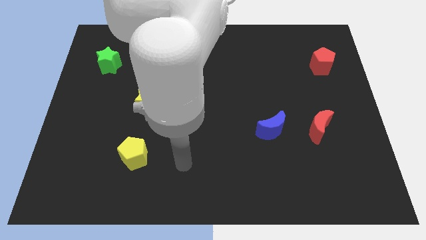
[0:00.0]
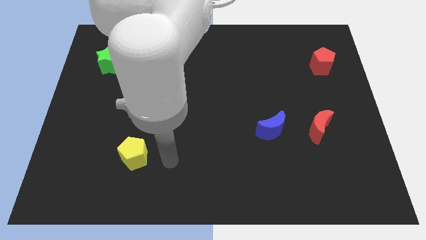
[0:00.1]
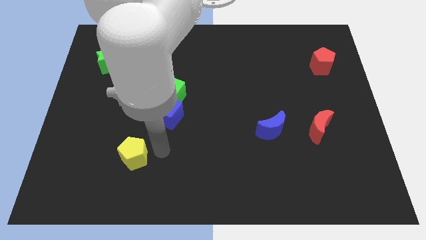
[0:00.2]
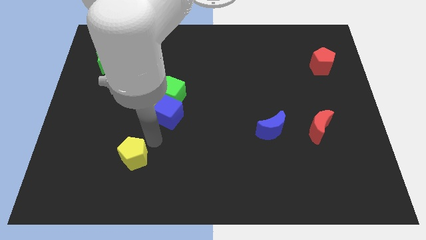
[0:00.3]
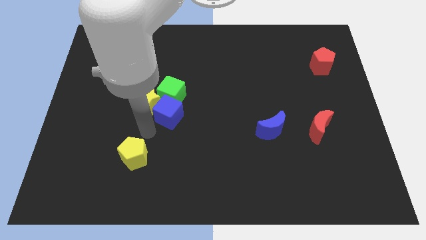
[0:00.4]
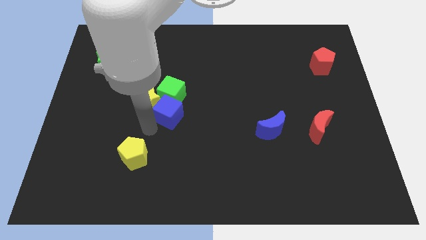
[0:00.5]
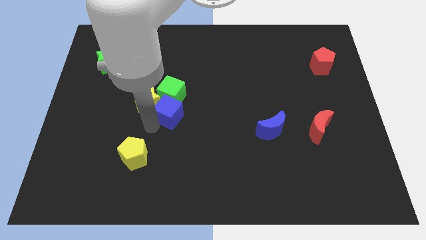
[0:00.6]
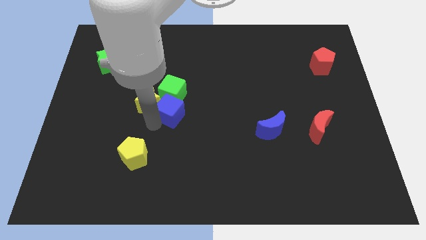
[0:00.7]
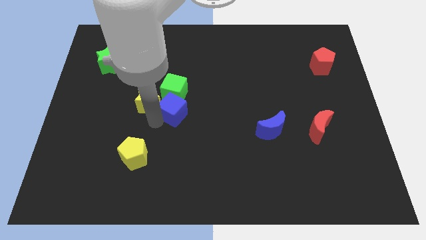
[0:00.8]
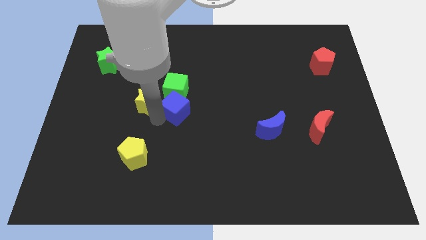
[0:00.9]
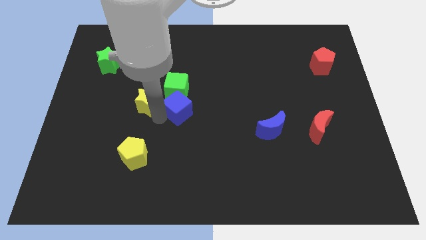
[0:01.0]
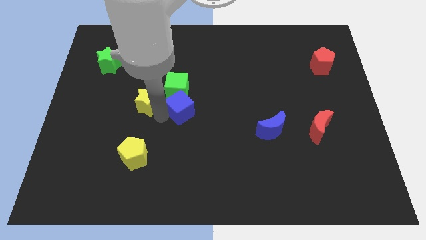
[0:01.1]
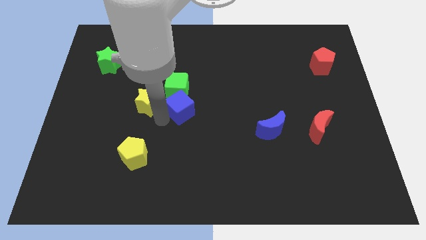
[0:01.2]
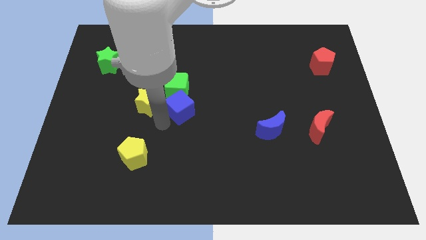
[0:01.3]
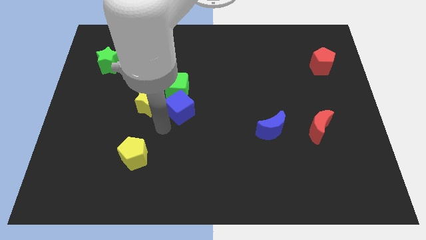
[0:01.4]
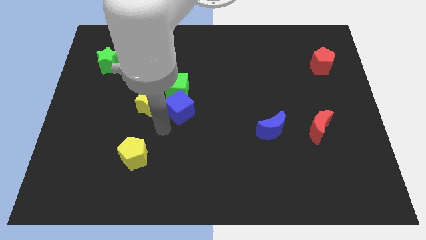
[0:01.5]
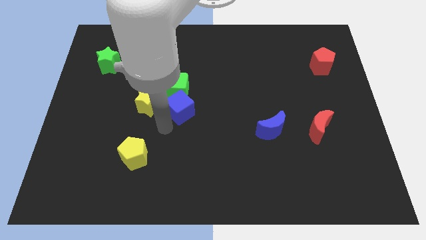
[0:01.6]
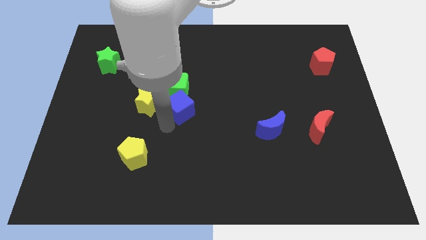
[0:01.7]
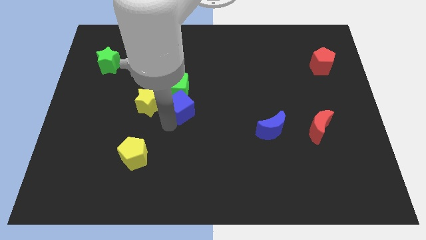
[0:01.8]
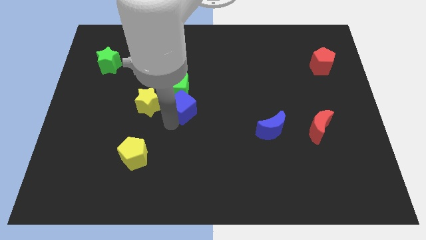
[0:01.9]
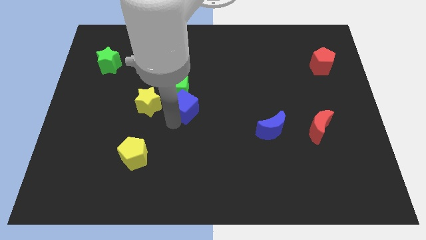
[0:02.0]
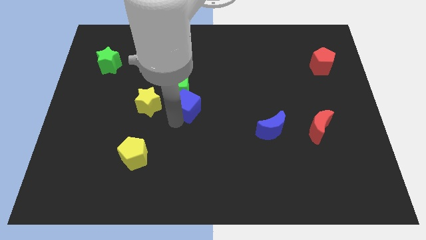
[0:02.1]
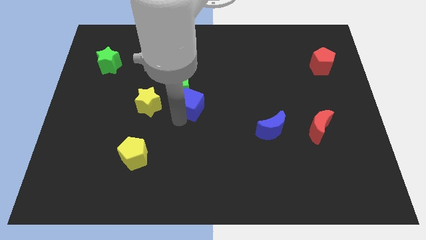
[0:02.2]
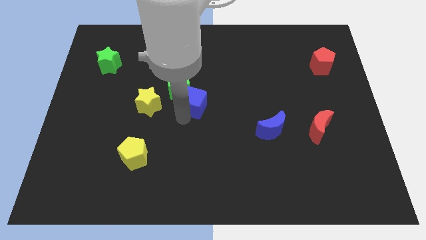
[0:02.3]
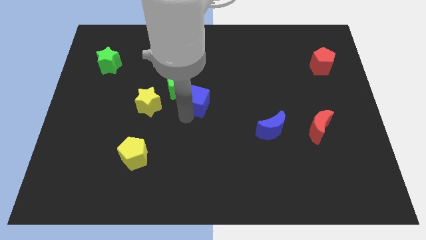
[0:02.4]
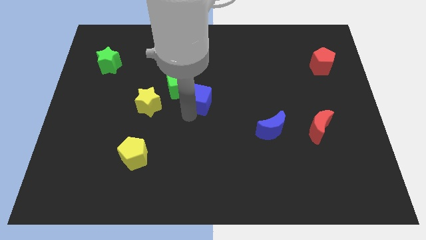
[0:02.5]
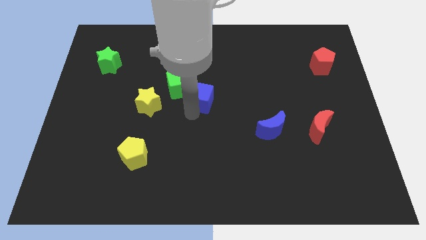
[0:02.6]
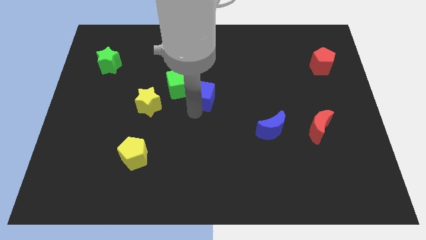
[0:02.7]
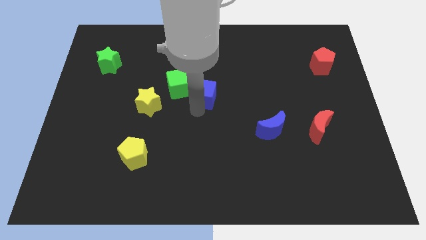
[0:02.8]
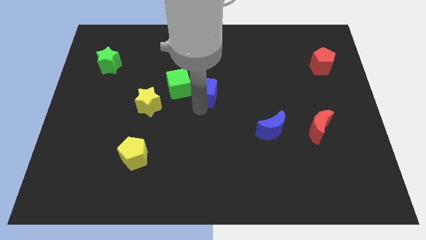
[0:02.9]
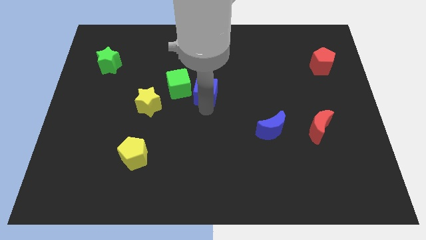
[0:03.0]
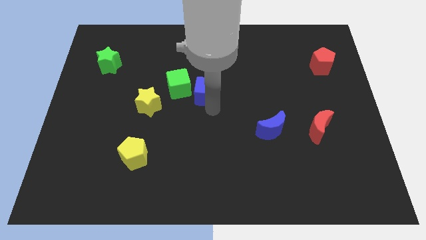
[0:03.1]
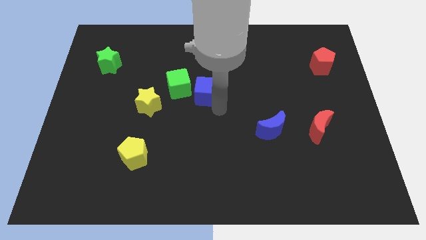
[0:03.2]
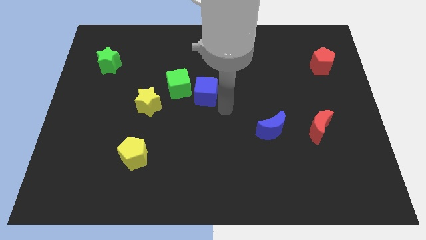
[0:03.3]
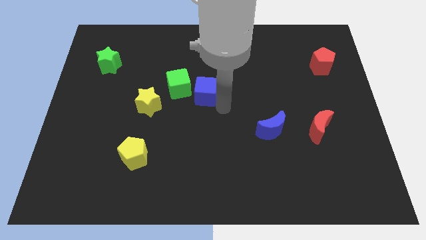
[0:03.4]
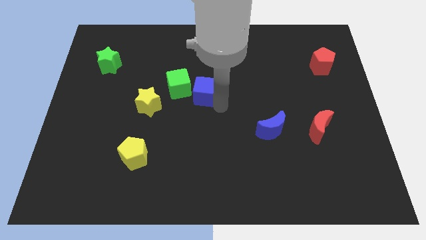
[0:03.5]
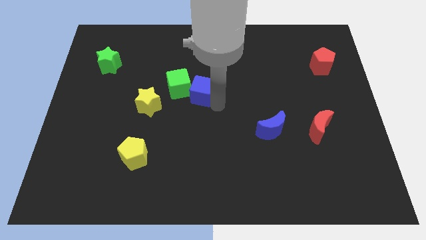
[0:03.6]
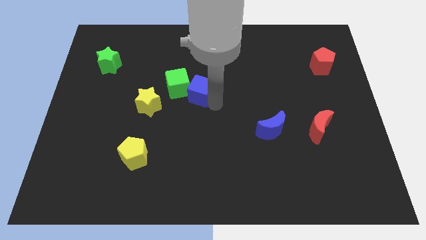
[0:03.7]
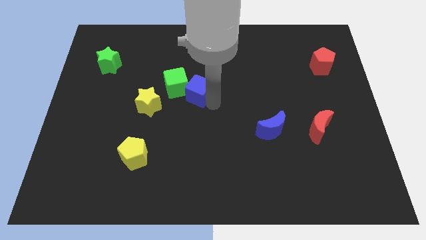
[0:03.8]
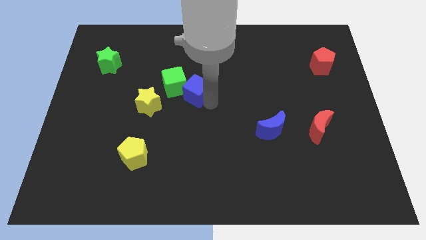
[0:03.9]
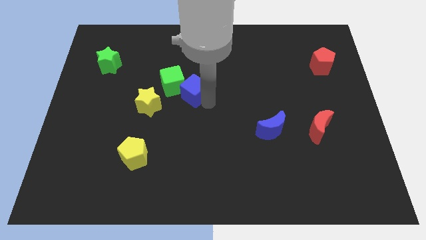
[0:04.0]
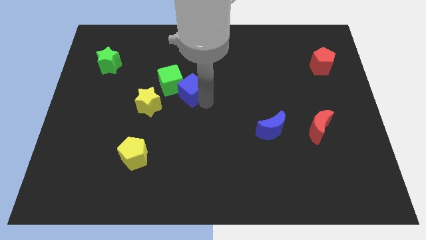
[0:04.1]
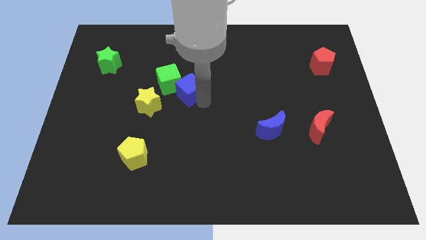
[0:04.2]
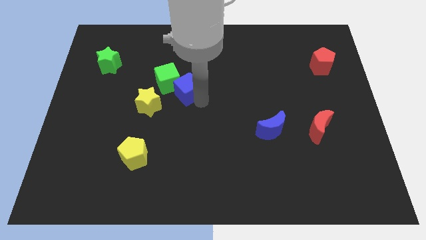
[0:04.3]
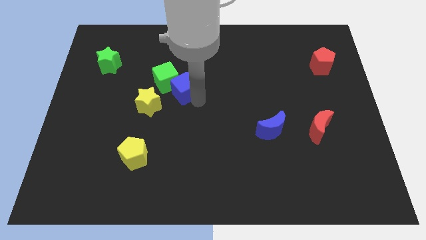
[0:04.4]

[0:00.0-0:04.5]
slightly move the blue cube up

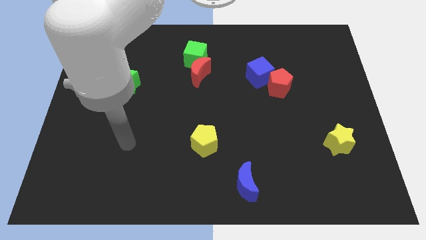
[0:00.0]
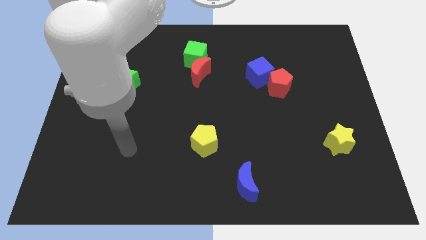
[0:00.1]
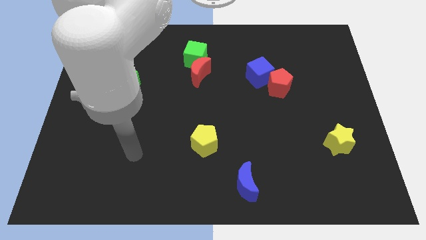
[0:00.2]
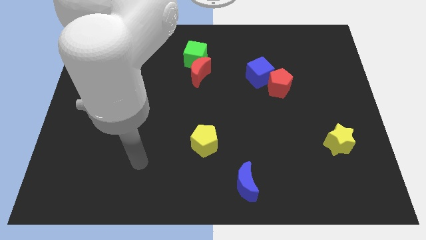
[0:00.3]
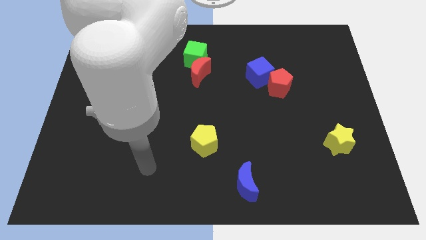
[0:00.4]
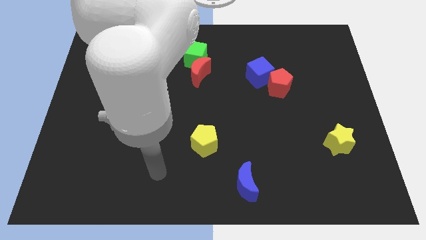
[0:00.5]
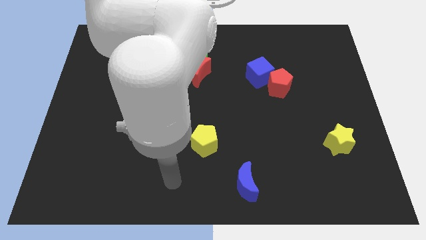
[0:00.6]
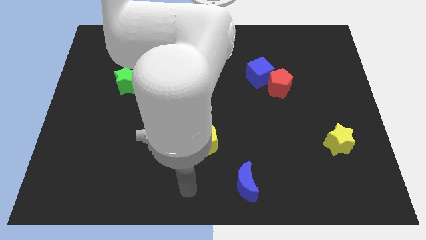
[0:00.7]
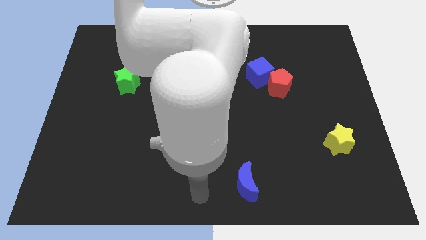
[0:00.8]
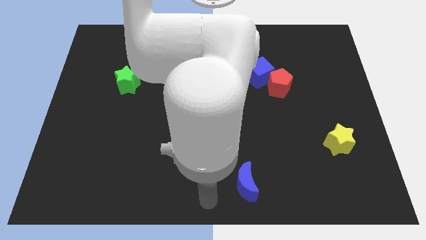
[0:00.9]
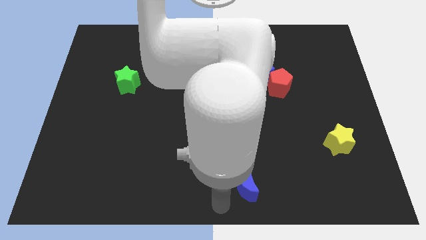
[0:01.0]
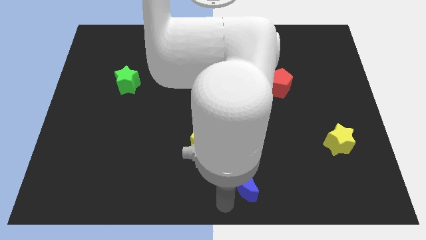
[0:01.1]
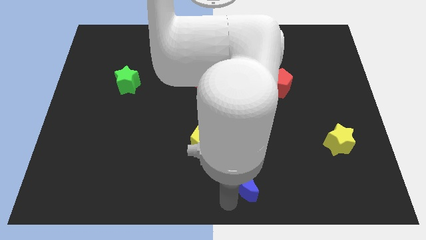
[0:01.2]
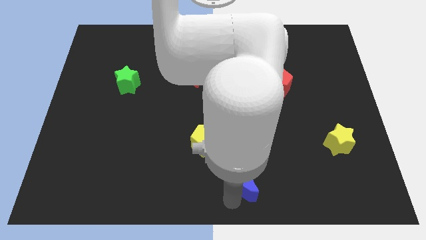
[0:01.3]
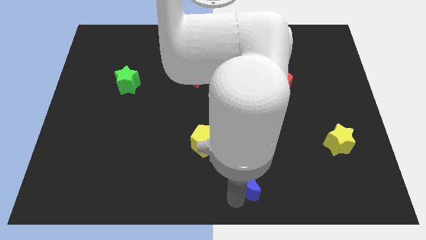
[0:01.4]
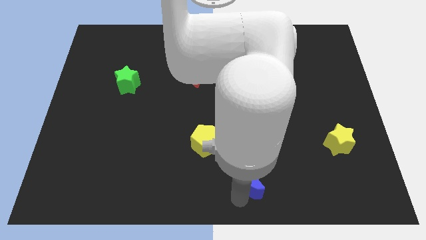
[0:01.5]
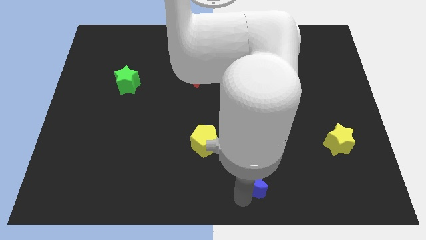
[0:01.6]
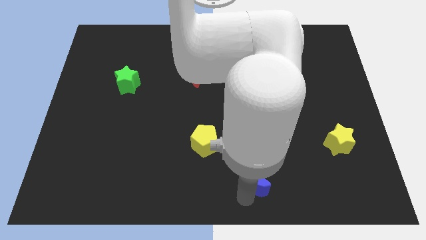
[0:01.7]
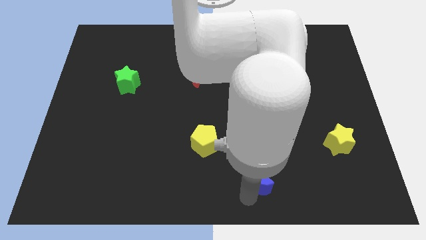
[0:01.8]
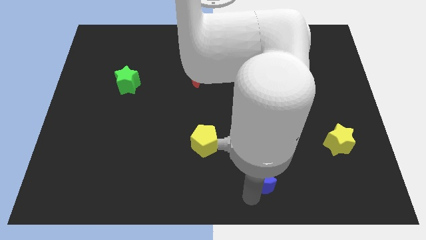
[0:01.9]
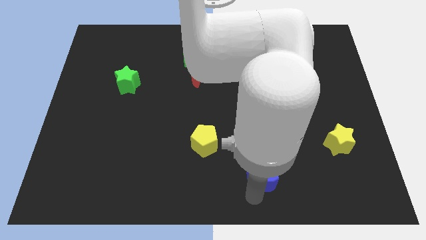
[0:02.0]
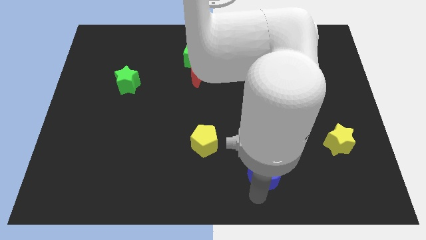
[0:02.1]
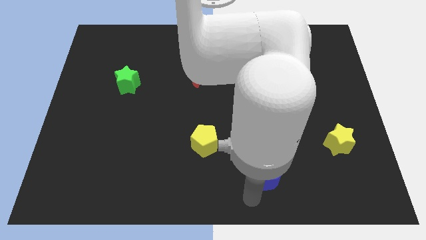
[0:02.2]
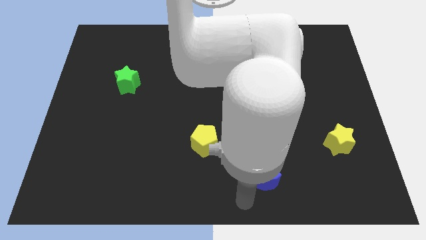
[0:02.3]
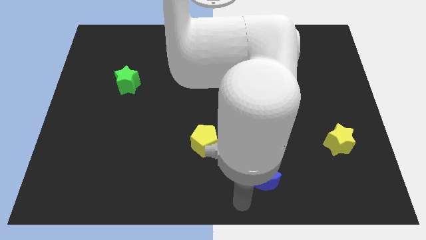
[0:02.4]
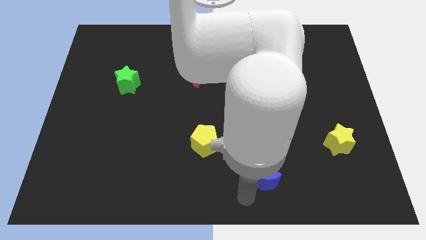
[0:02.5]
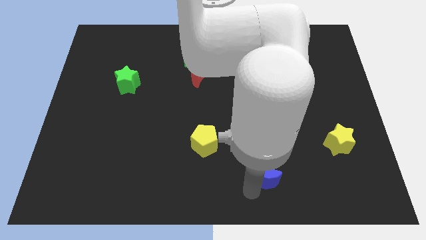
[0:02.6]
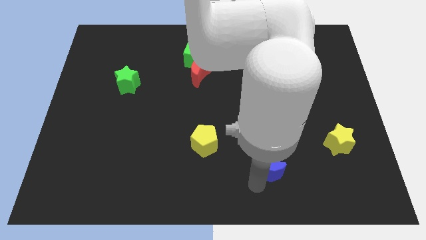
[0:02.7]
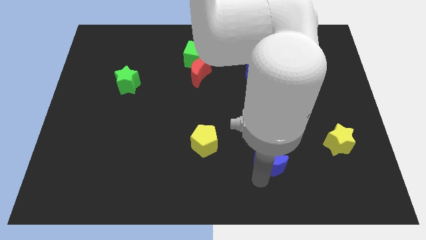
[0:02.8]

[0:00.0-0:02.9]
slightly push the blue moon upwards and to the right diagonally

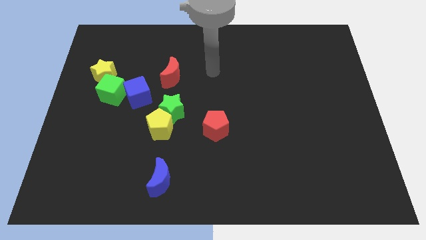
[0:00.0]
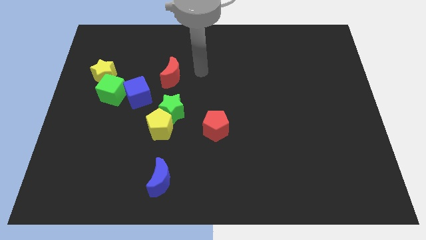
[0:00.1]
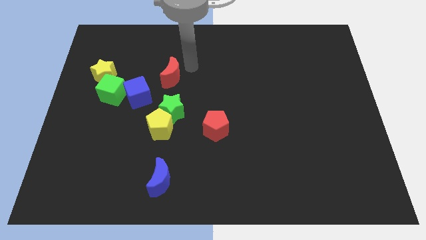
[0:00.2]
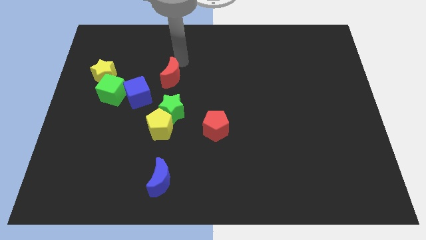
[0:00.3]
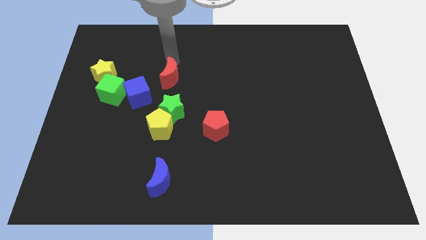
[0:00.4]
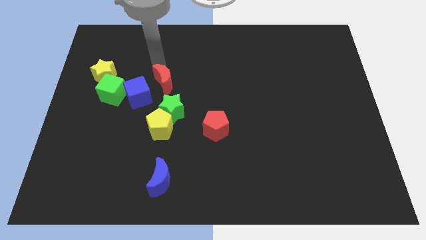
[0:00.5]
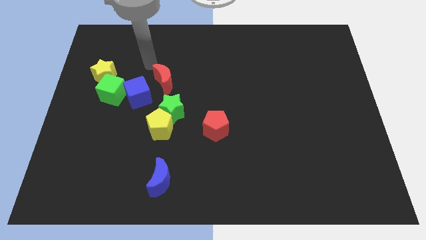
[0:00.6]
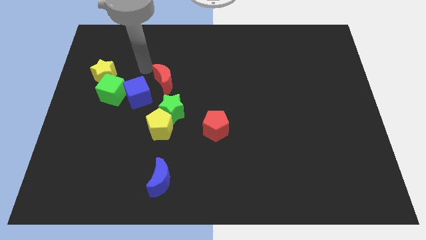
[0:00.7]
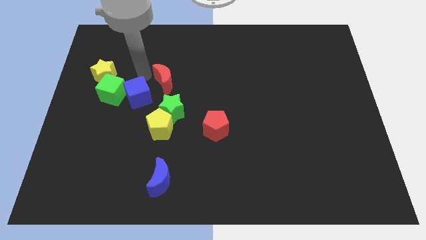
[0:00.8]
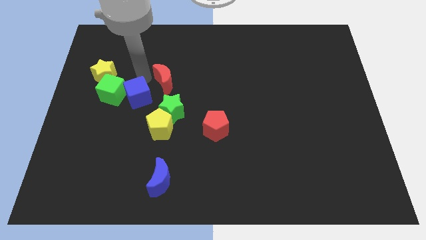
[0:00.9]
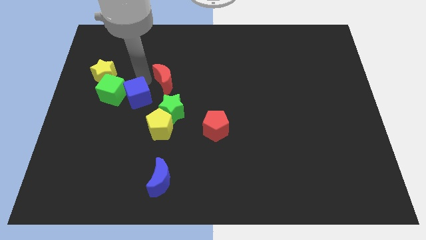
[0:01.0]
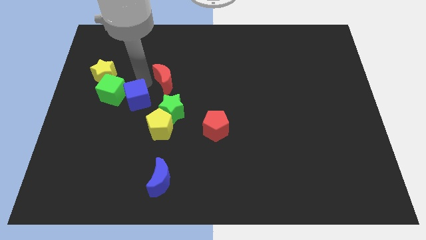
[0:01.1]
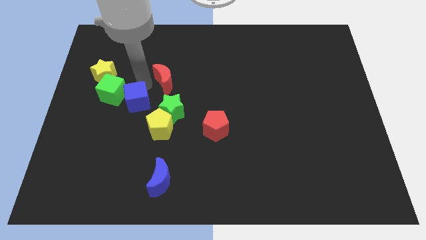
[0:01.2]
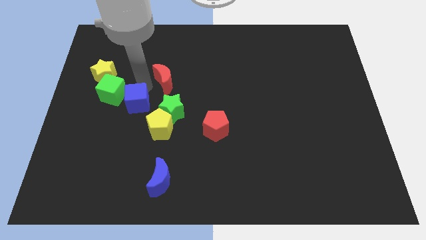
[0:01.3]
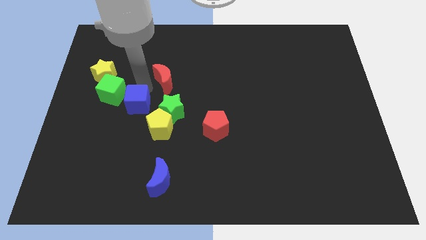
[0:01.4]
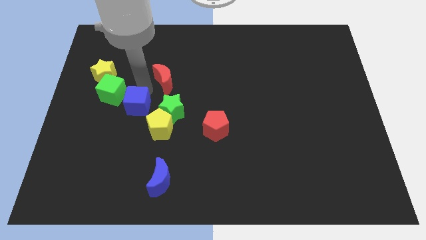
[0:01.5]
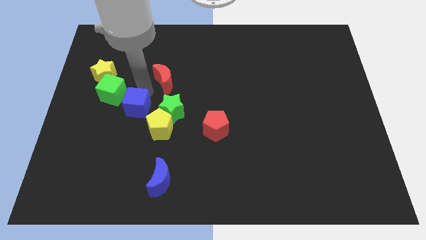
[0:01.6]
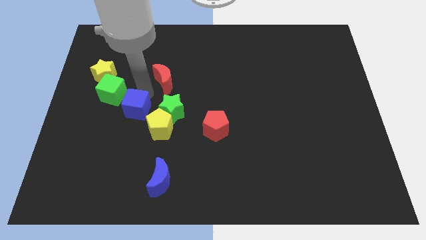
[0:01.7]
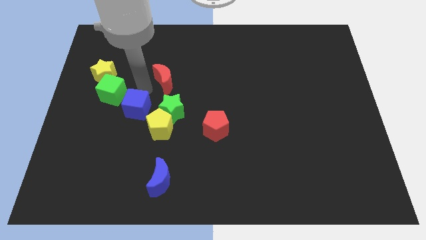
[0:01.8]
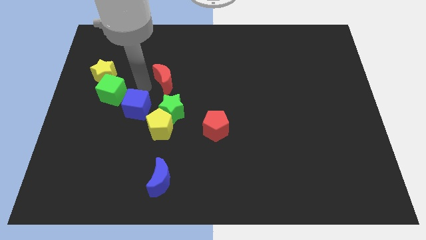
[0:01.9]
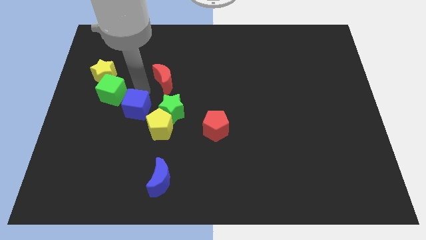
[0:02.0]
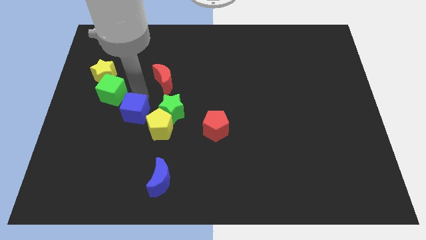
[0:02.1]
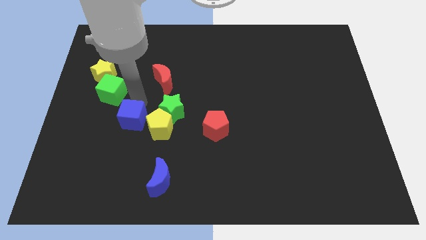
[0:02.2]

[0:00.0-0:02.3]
slightly move the blue cube downwards
